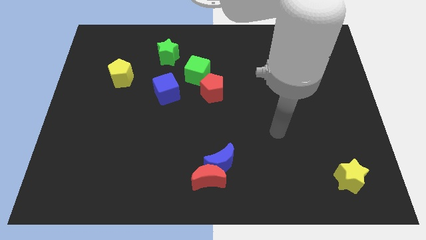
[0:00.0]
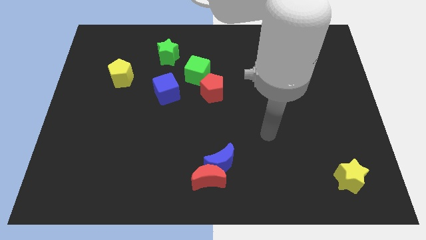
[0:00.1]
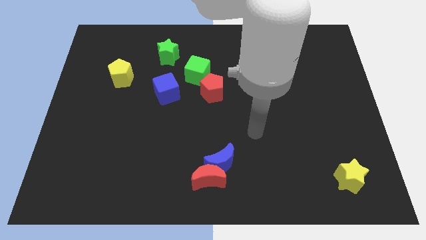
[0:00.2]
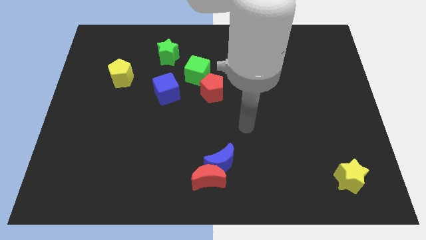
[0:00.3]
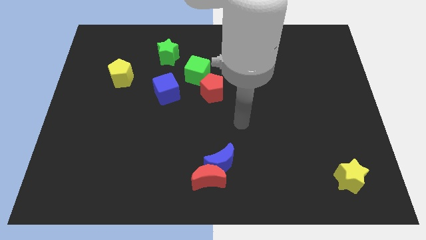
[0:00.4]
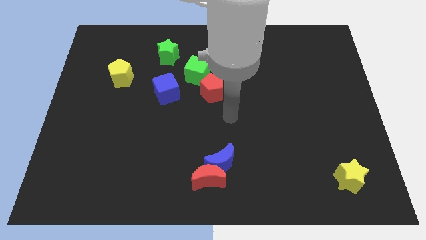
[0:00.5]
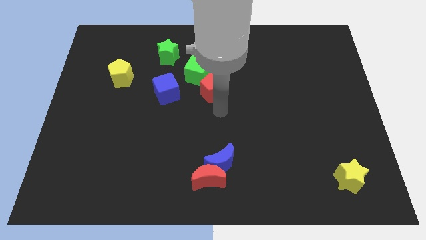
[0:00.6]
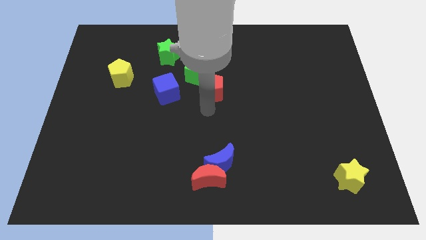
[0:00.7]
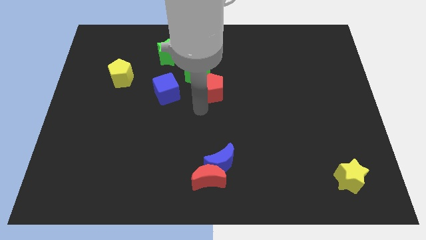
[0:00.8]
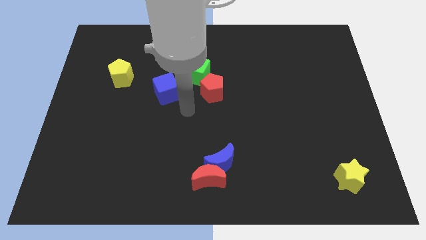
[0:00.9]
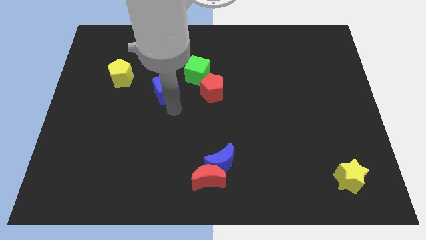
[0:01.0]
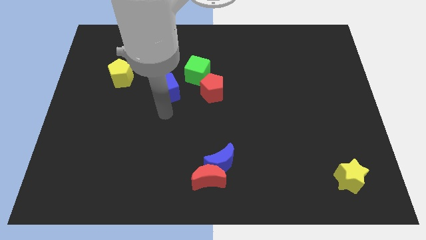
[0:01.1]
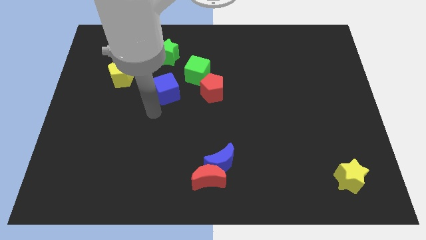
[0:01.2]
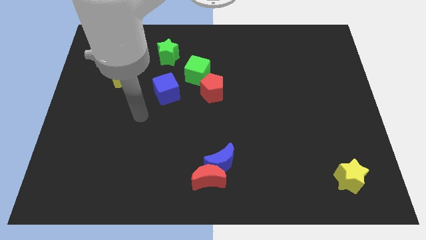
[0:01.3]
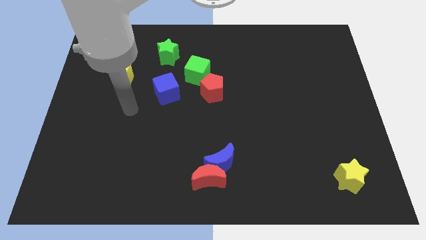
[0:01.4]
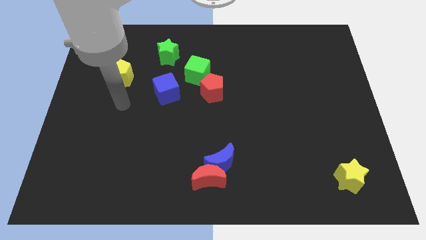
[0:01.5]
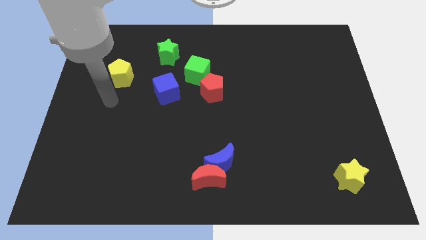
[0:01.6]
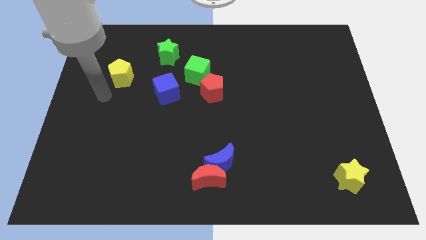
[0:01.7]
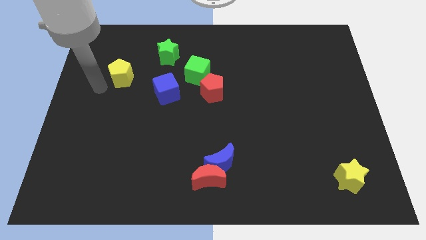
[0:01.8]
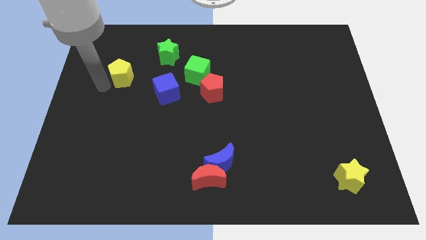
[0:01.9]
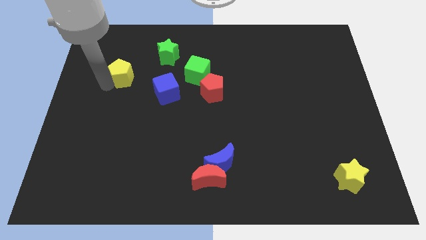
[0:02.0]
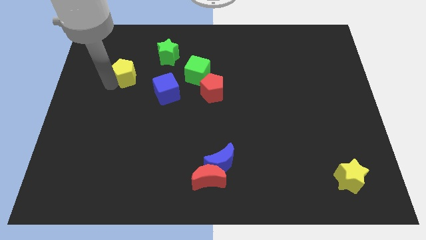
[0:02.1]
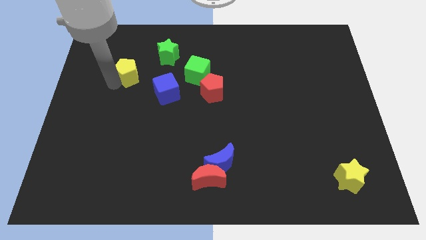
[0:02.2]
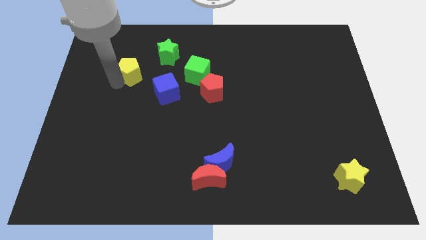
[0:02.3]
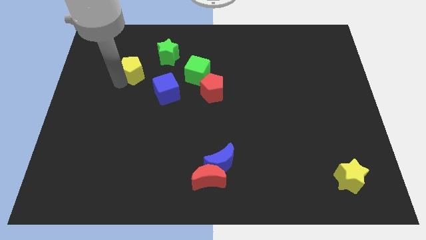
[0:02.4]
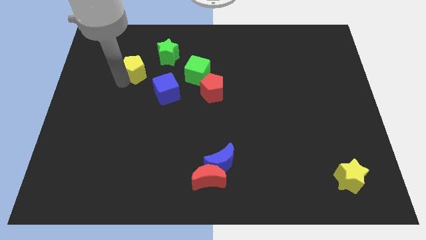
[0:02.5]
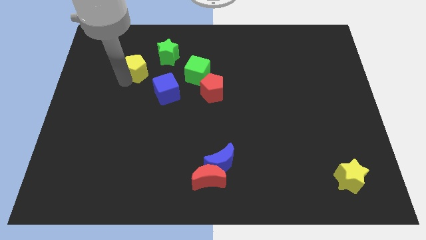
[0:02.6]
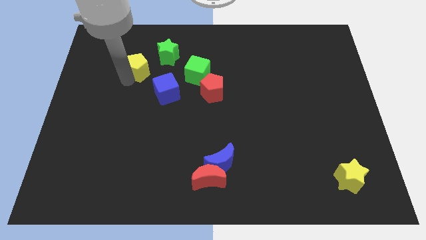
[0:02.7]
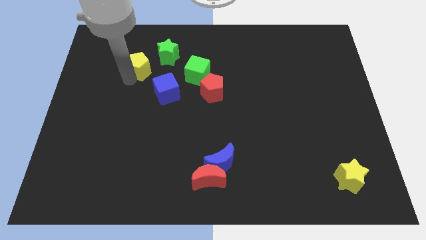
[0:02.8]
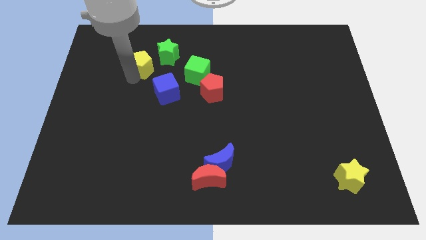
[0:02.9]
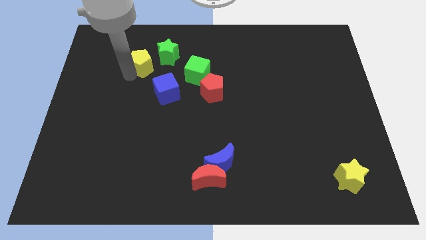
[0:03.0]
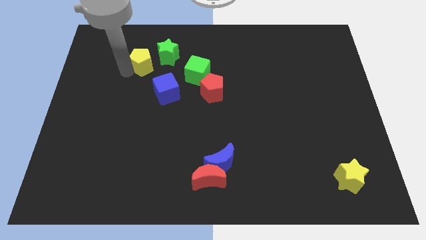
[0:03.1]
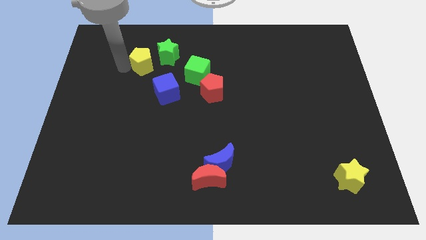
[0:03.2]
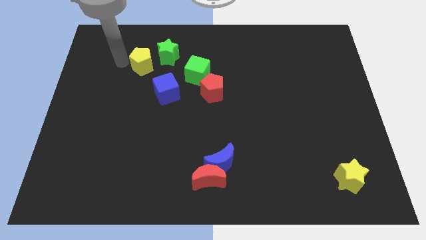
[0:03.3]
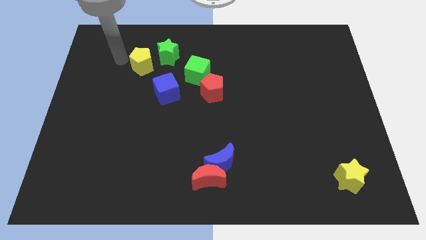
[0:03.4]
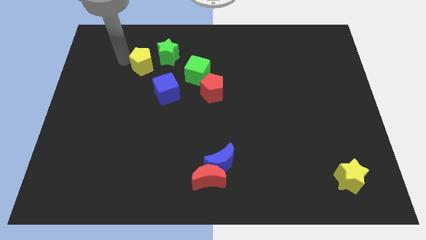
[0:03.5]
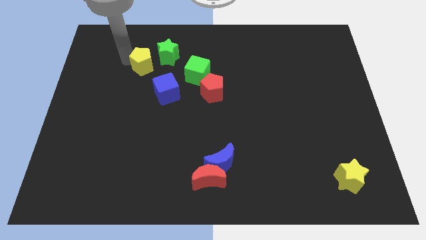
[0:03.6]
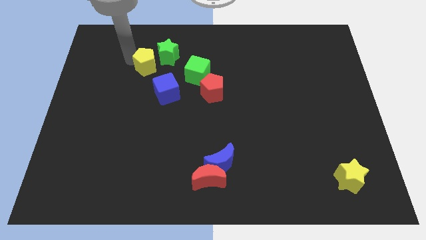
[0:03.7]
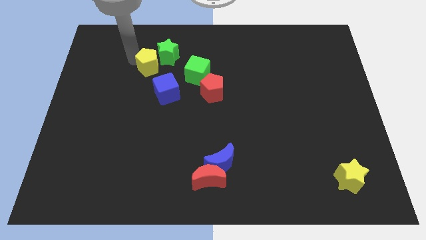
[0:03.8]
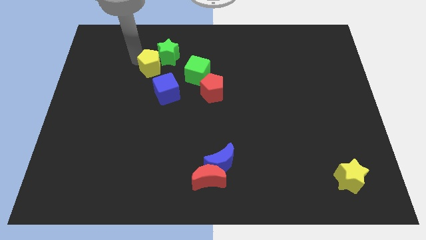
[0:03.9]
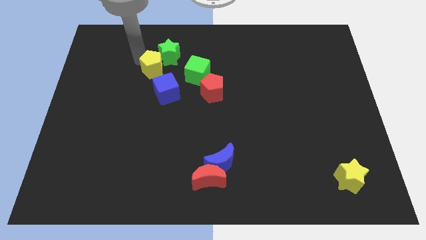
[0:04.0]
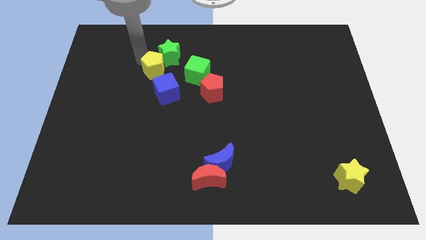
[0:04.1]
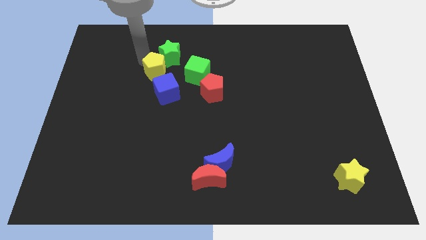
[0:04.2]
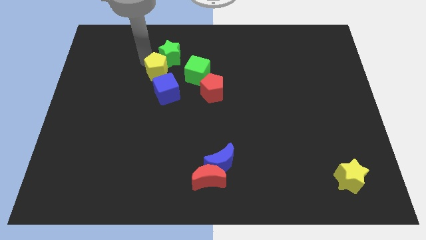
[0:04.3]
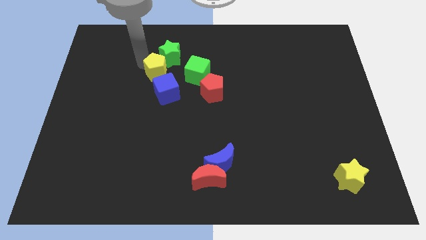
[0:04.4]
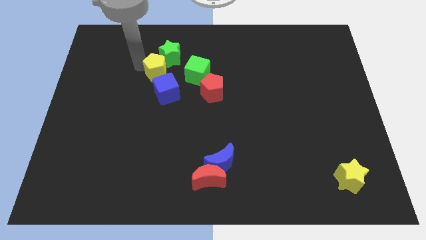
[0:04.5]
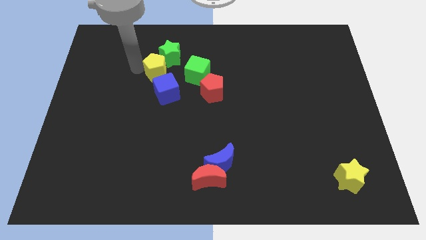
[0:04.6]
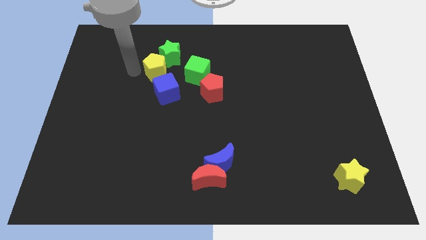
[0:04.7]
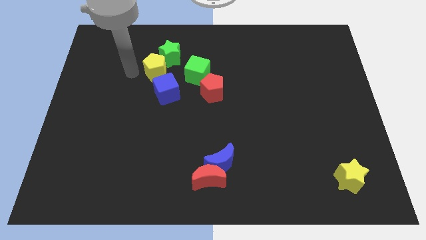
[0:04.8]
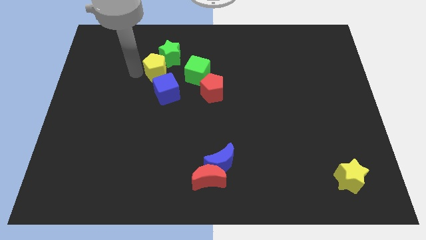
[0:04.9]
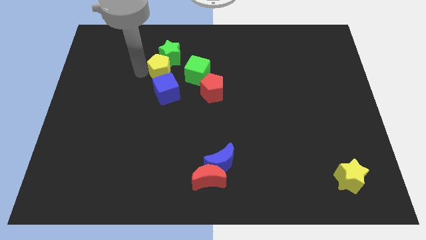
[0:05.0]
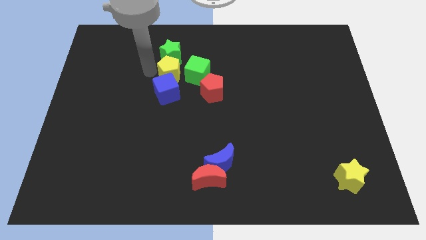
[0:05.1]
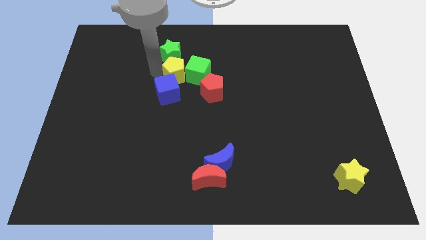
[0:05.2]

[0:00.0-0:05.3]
push the yellow pentagon next to the green cube

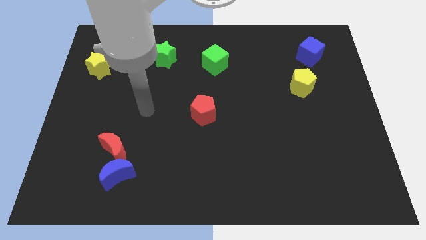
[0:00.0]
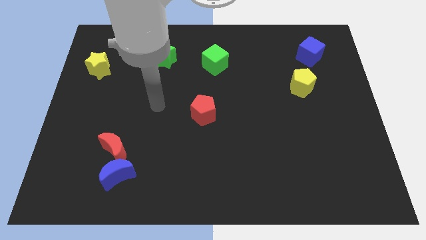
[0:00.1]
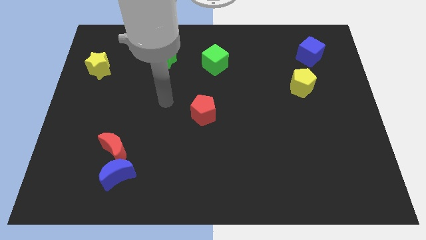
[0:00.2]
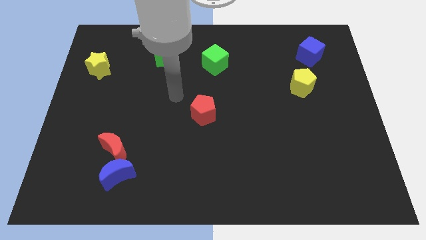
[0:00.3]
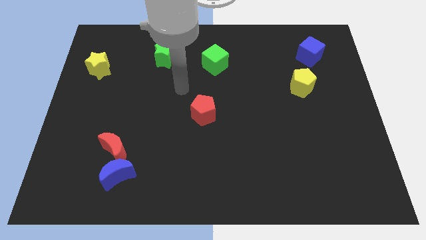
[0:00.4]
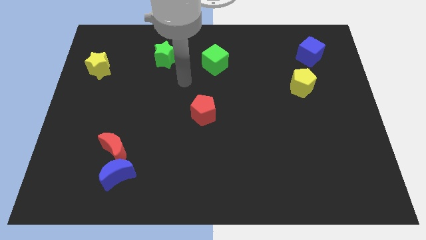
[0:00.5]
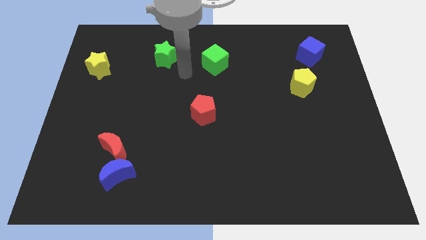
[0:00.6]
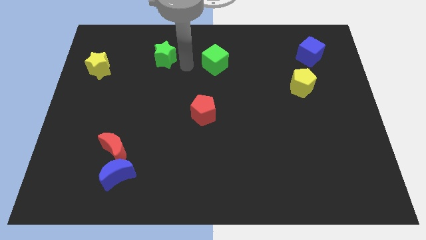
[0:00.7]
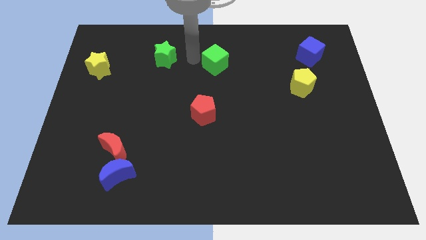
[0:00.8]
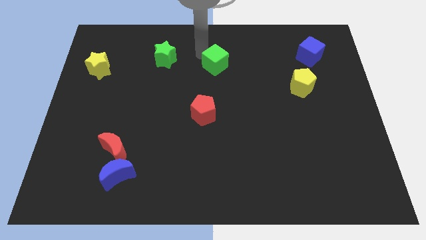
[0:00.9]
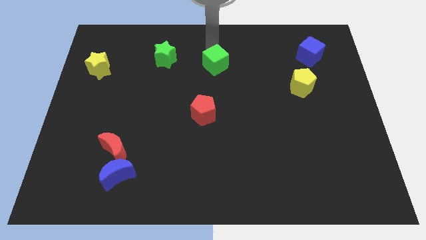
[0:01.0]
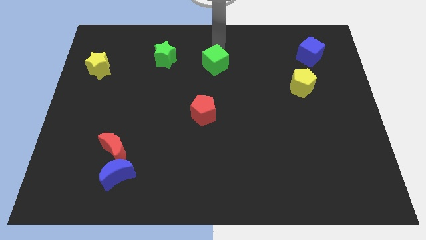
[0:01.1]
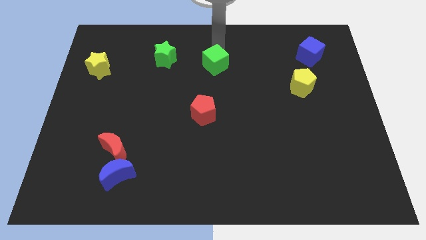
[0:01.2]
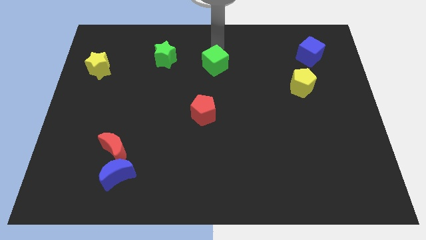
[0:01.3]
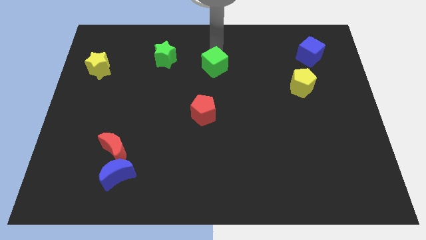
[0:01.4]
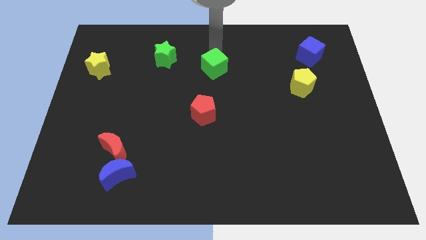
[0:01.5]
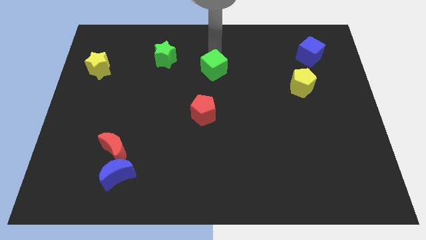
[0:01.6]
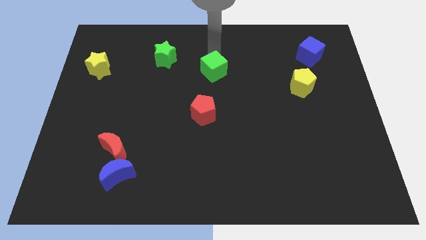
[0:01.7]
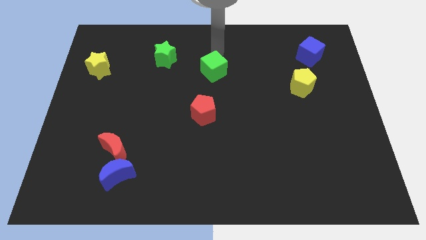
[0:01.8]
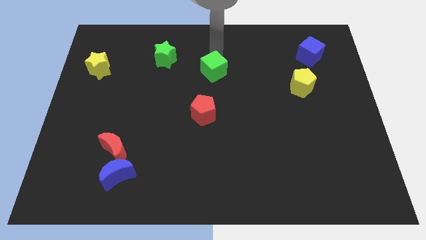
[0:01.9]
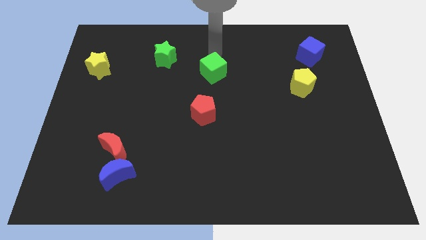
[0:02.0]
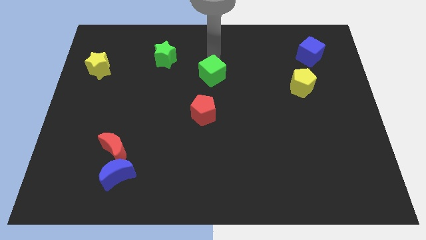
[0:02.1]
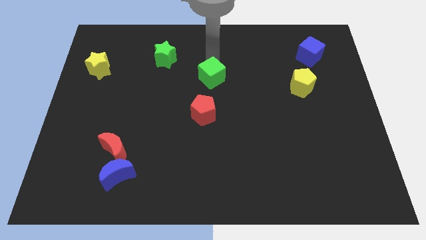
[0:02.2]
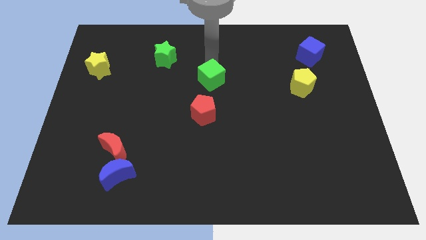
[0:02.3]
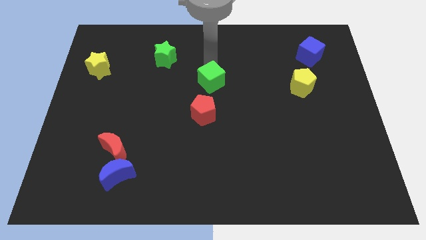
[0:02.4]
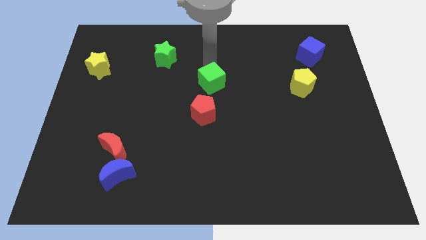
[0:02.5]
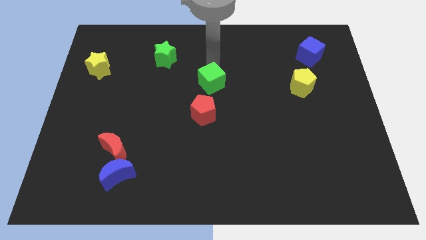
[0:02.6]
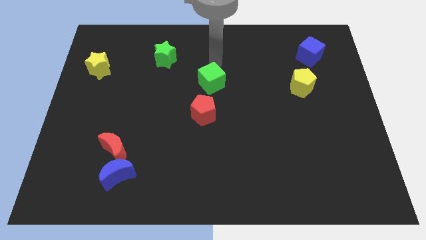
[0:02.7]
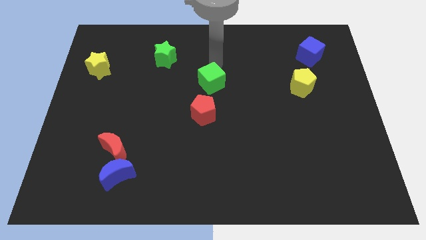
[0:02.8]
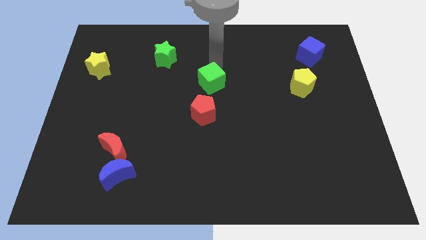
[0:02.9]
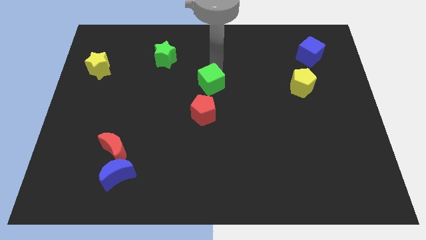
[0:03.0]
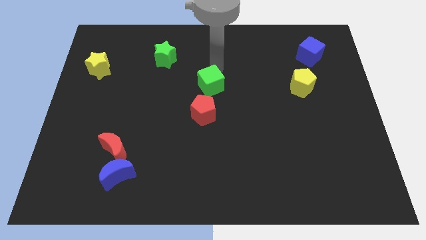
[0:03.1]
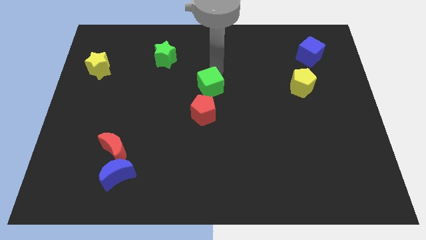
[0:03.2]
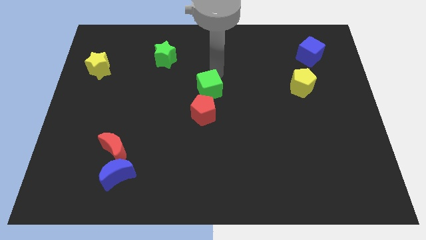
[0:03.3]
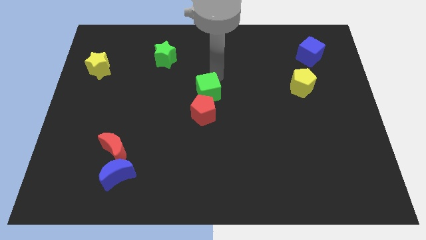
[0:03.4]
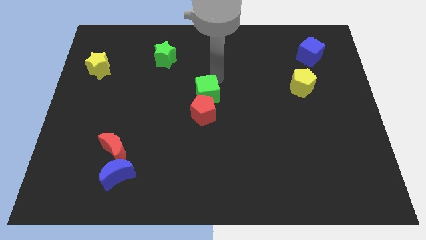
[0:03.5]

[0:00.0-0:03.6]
slide the green cube to the red pentagon
